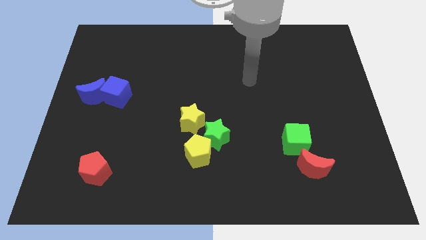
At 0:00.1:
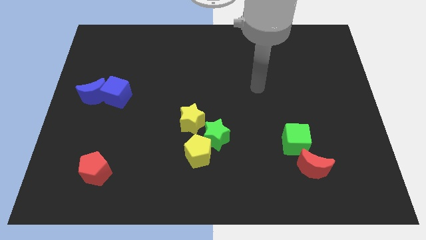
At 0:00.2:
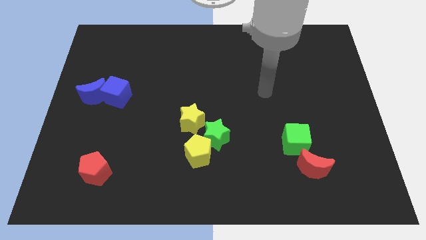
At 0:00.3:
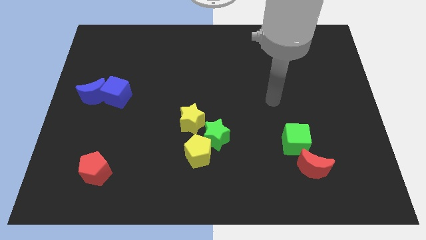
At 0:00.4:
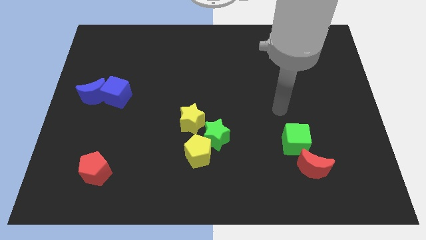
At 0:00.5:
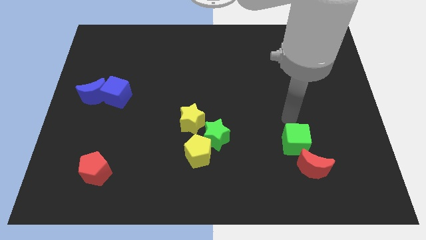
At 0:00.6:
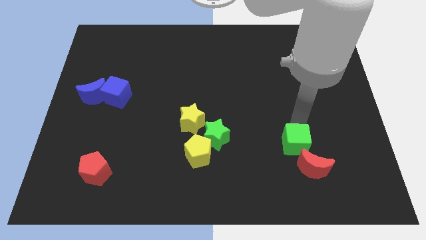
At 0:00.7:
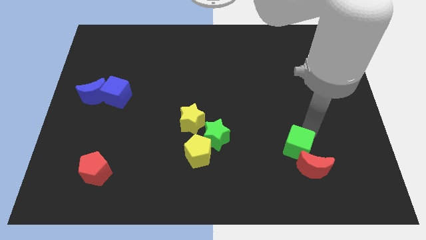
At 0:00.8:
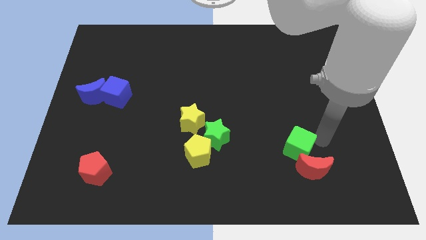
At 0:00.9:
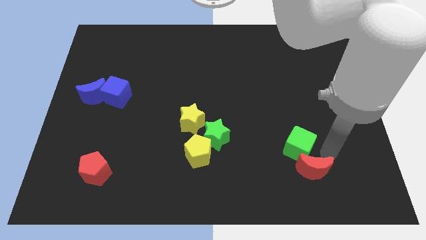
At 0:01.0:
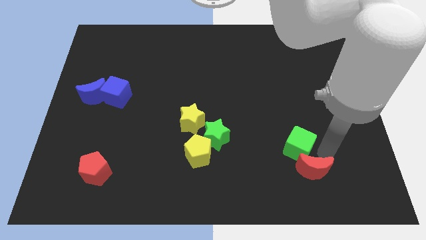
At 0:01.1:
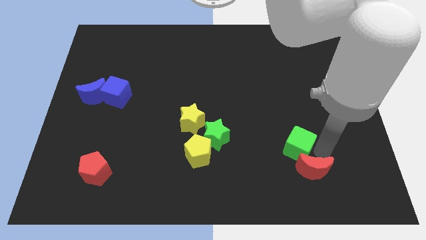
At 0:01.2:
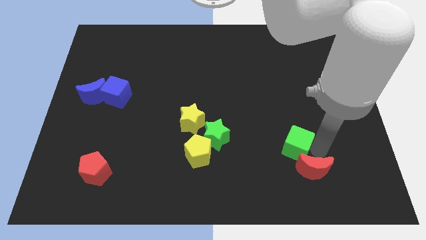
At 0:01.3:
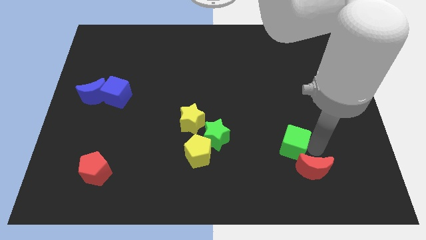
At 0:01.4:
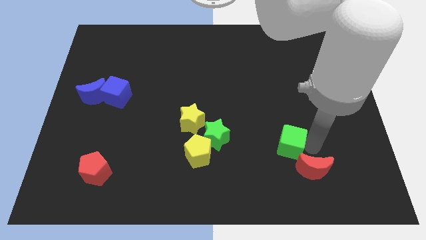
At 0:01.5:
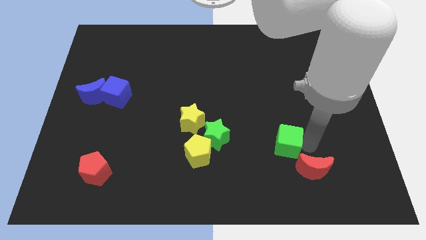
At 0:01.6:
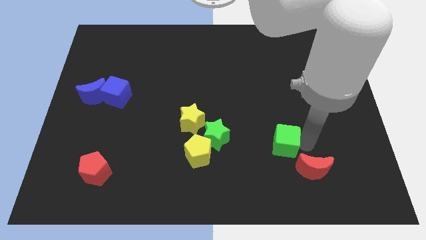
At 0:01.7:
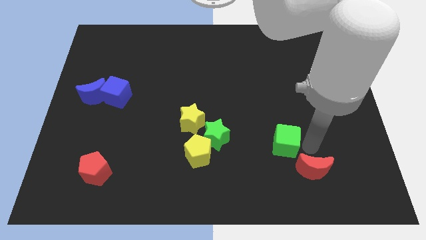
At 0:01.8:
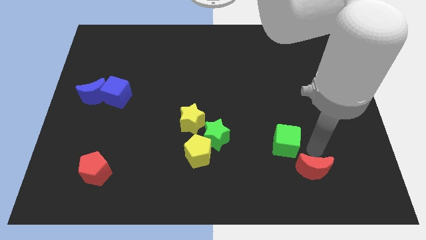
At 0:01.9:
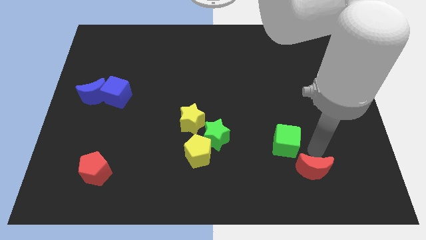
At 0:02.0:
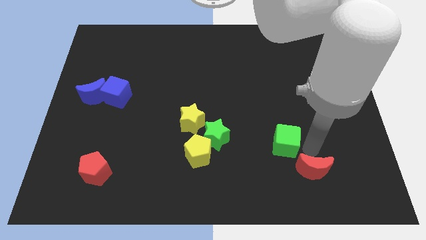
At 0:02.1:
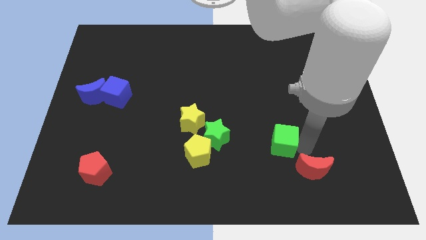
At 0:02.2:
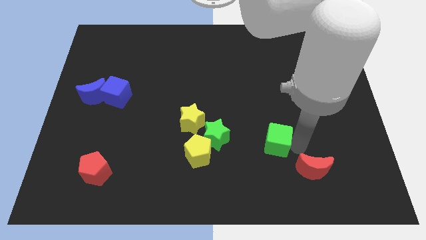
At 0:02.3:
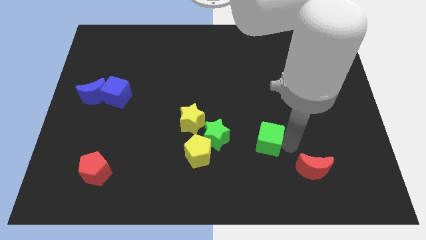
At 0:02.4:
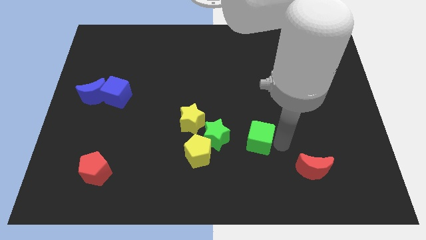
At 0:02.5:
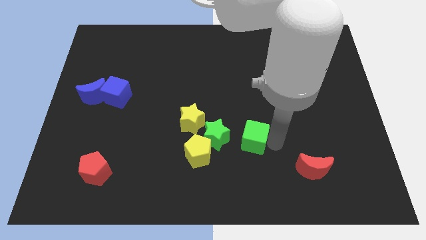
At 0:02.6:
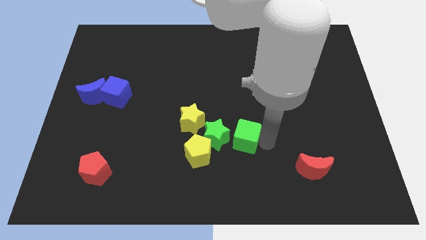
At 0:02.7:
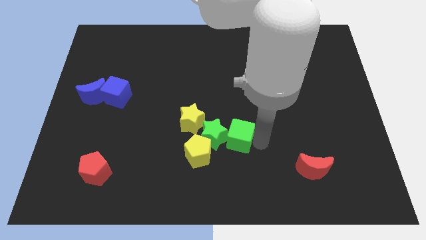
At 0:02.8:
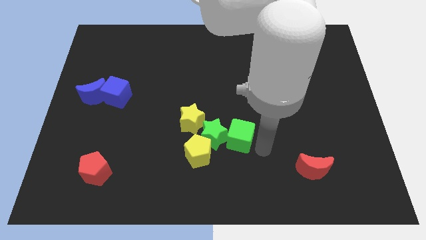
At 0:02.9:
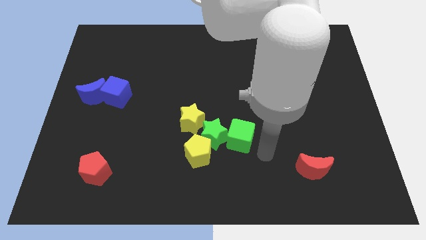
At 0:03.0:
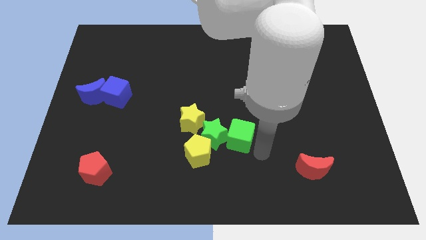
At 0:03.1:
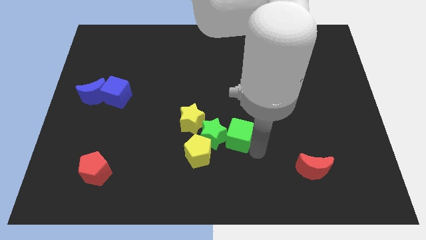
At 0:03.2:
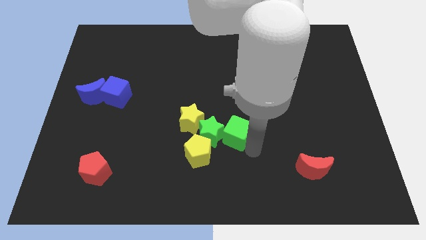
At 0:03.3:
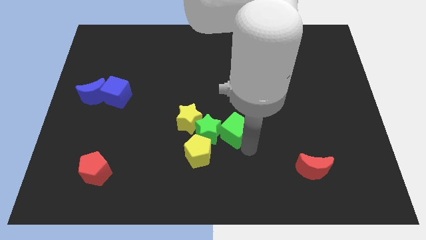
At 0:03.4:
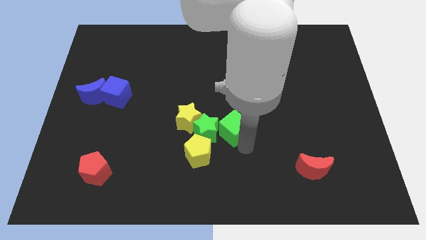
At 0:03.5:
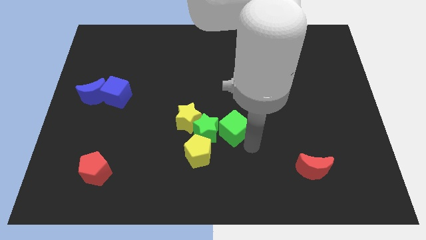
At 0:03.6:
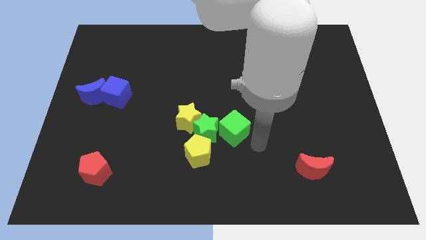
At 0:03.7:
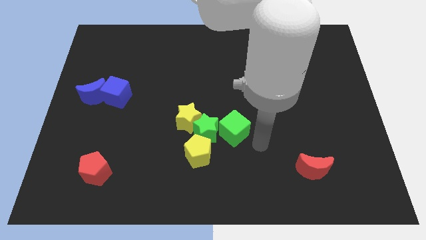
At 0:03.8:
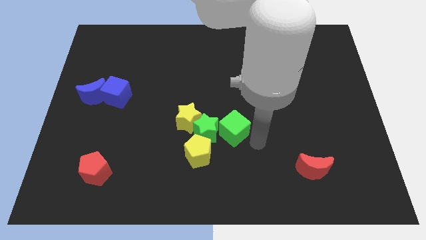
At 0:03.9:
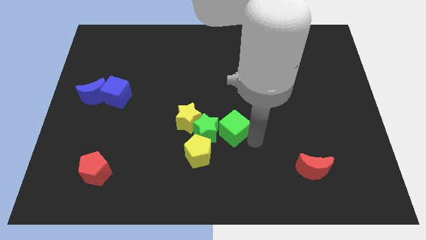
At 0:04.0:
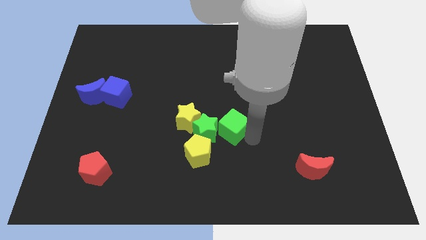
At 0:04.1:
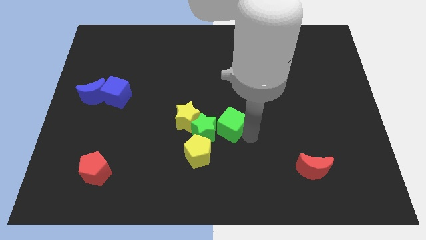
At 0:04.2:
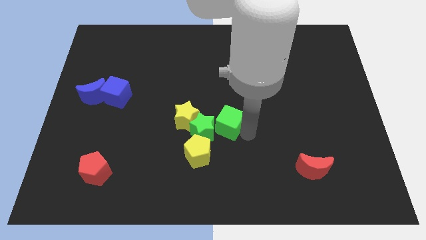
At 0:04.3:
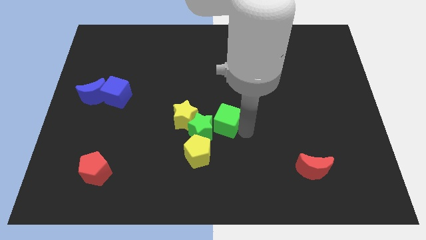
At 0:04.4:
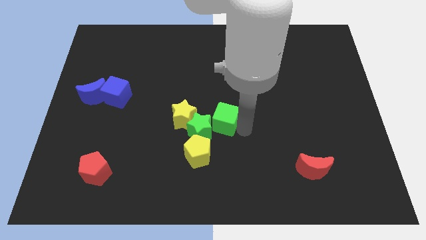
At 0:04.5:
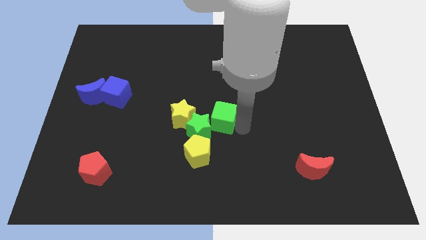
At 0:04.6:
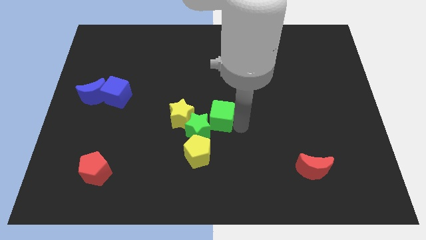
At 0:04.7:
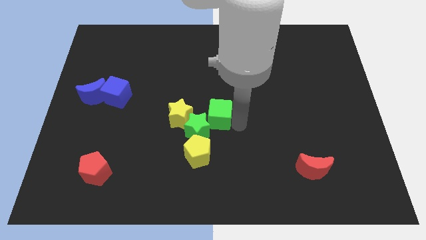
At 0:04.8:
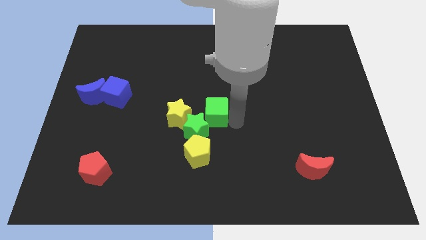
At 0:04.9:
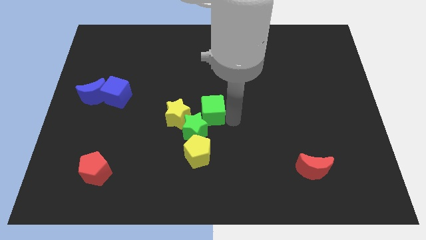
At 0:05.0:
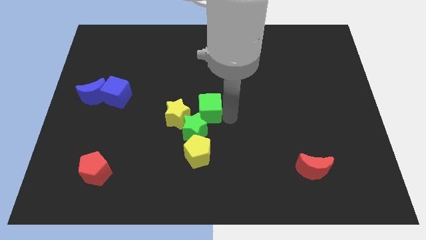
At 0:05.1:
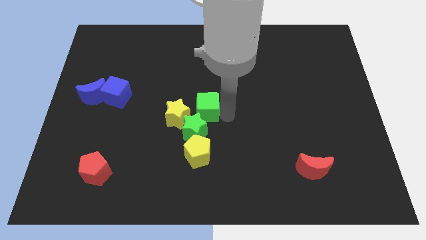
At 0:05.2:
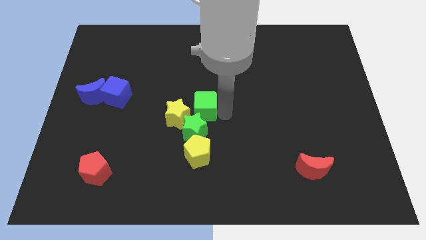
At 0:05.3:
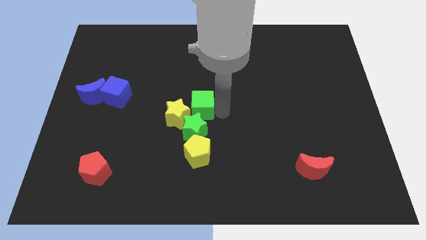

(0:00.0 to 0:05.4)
slide the green cube to the yellow star

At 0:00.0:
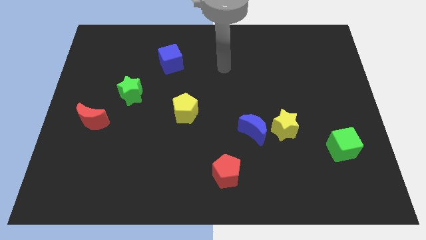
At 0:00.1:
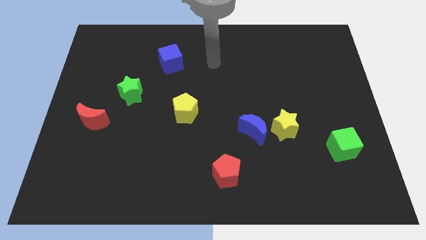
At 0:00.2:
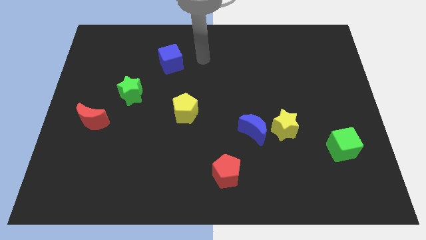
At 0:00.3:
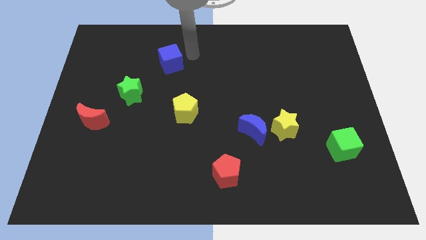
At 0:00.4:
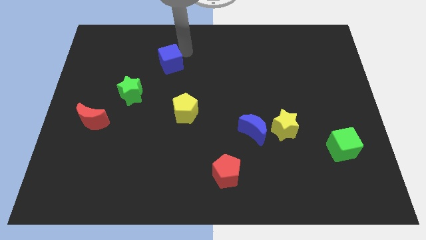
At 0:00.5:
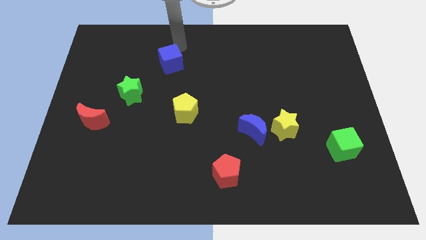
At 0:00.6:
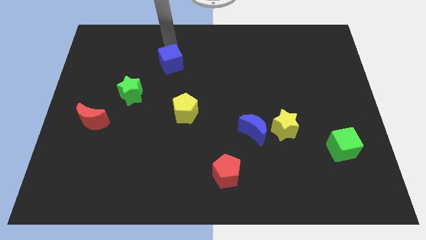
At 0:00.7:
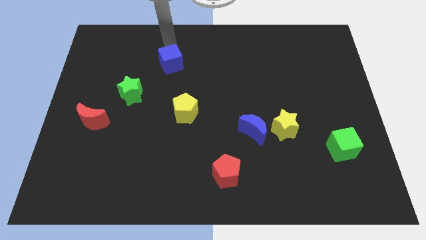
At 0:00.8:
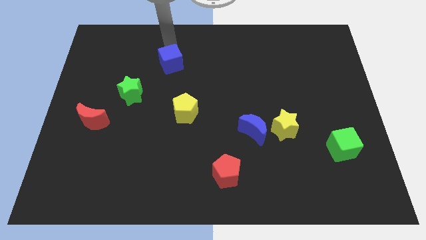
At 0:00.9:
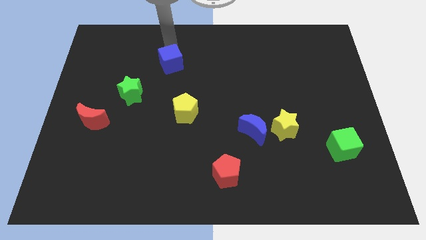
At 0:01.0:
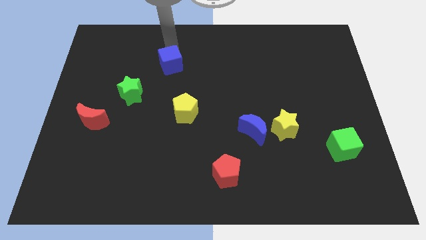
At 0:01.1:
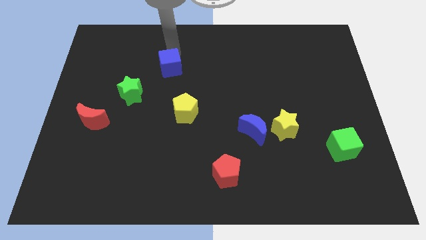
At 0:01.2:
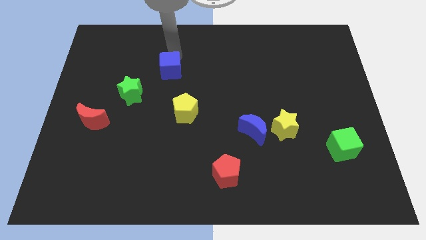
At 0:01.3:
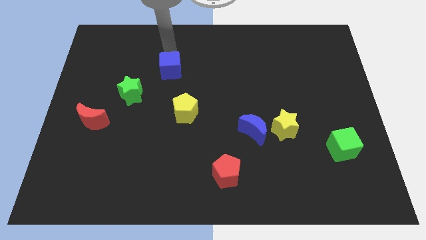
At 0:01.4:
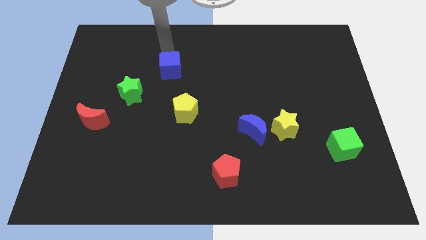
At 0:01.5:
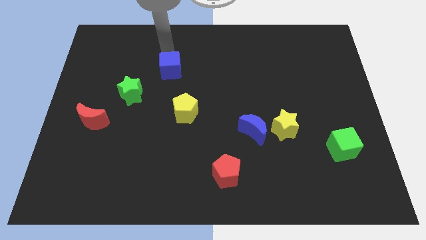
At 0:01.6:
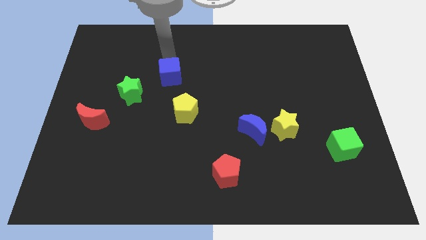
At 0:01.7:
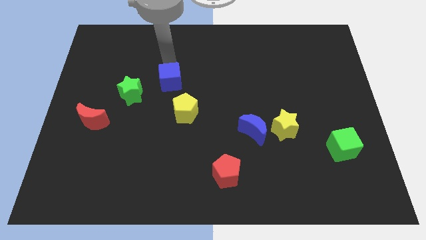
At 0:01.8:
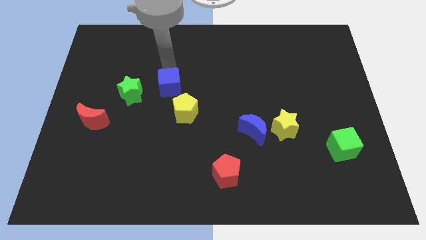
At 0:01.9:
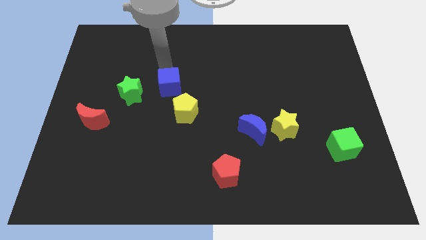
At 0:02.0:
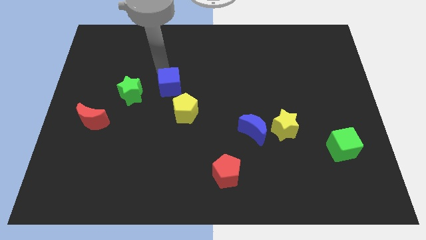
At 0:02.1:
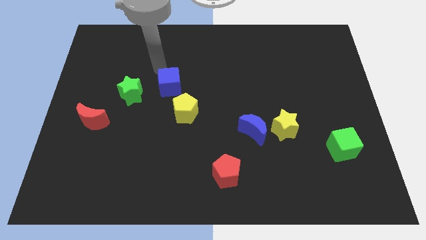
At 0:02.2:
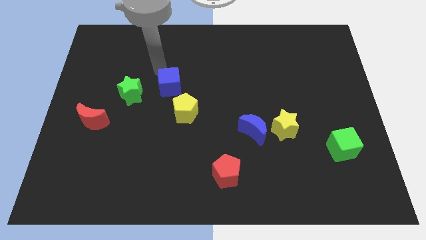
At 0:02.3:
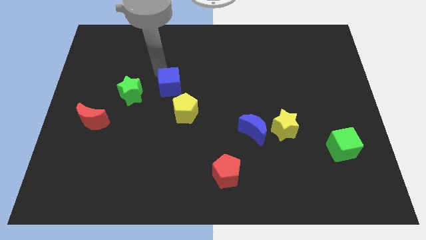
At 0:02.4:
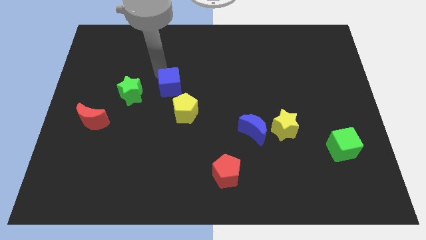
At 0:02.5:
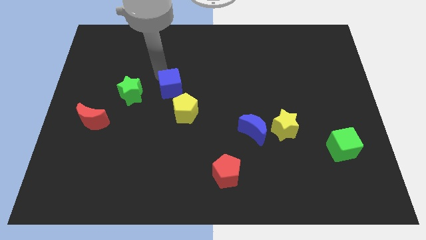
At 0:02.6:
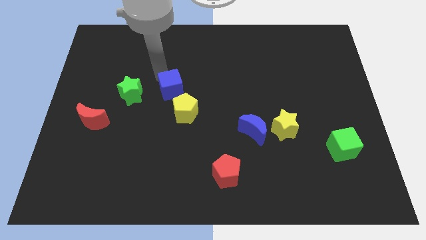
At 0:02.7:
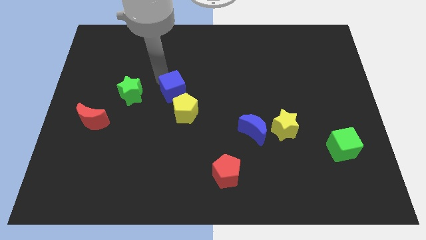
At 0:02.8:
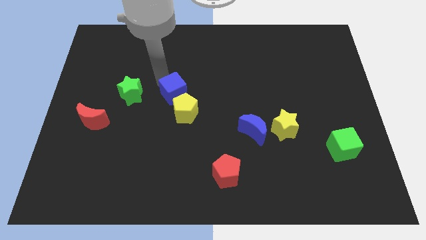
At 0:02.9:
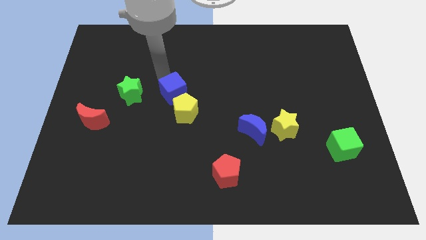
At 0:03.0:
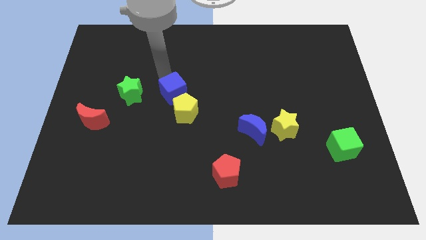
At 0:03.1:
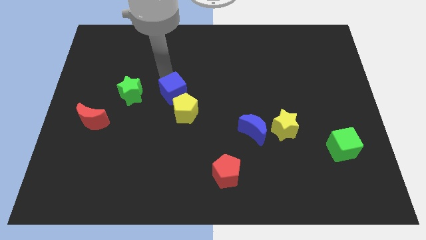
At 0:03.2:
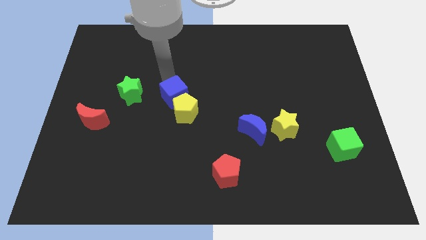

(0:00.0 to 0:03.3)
slide the blue cube close to the yellow pentagon
